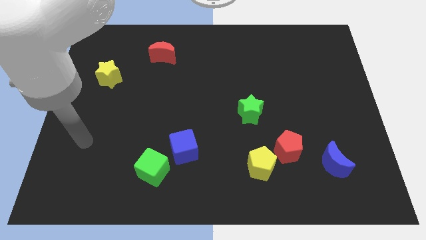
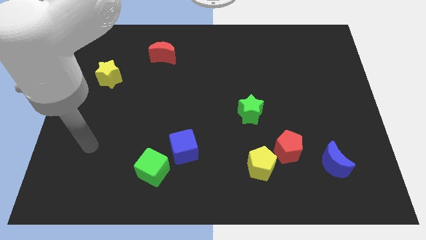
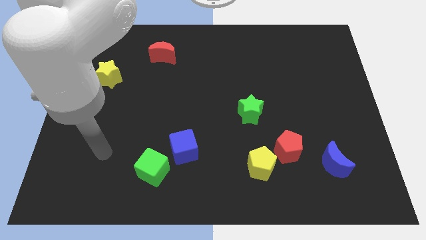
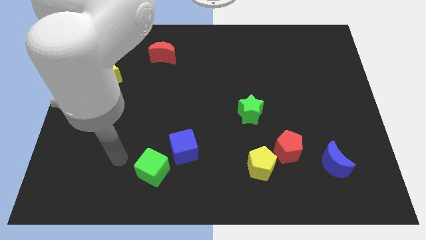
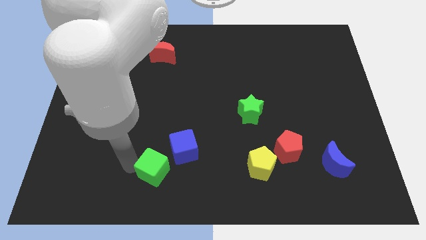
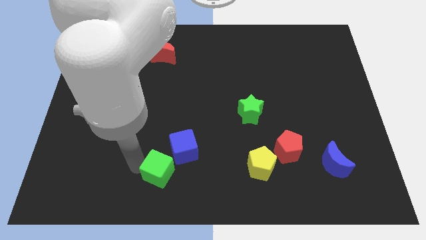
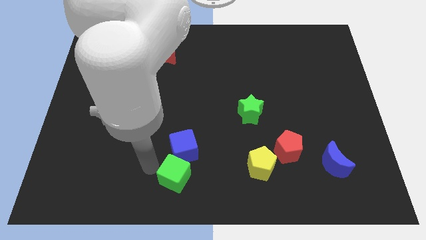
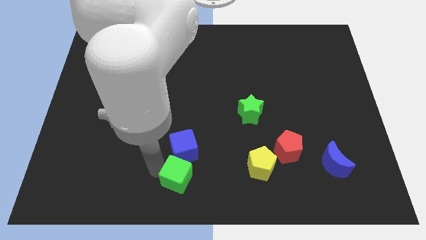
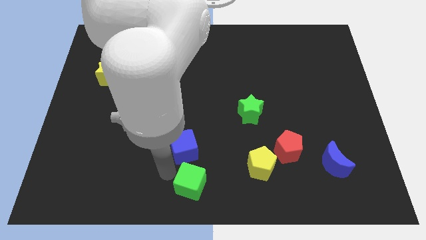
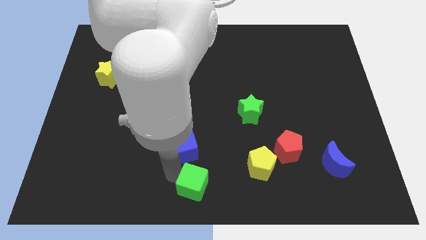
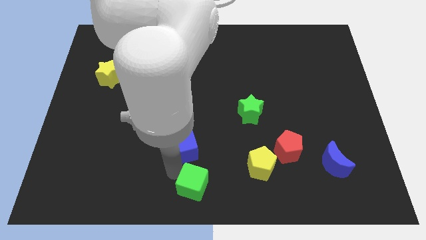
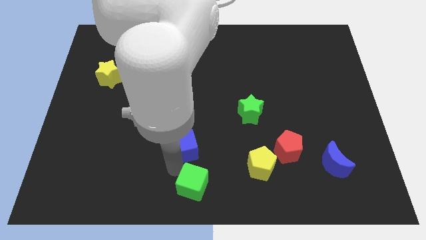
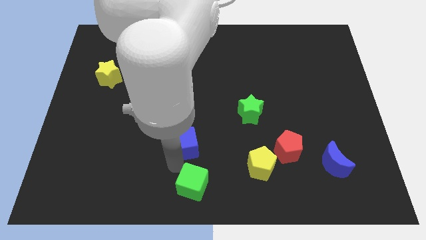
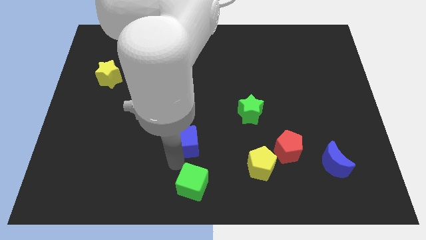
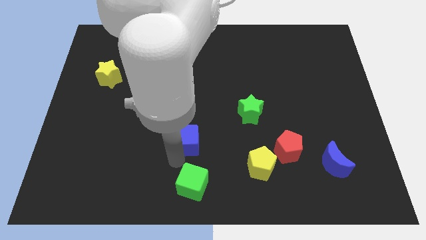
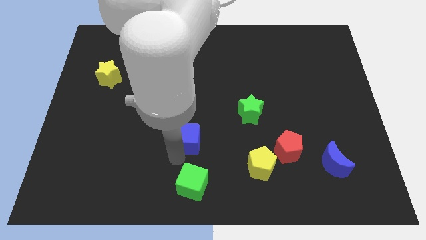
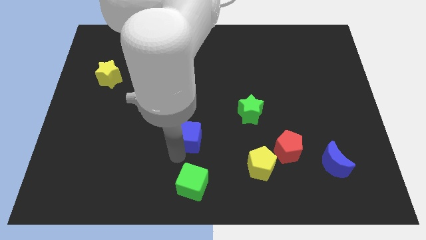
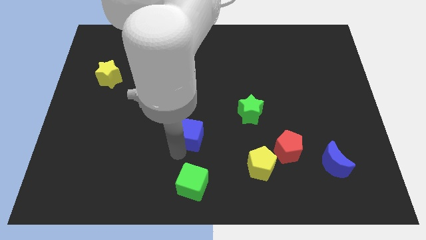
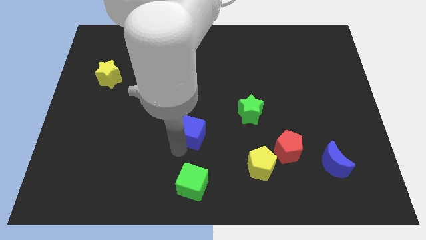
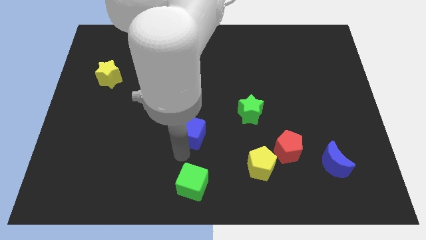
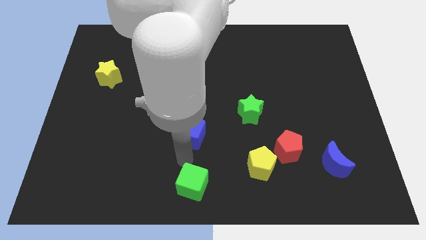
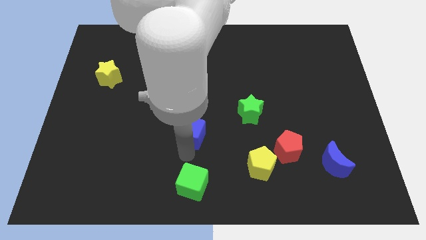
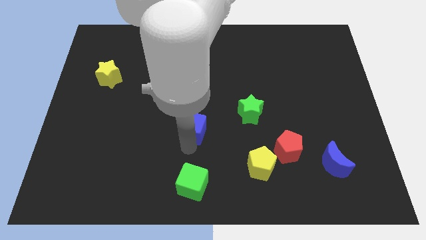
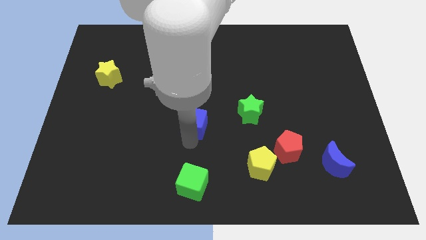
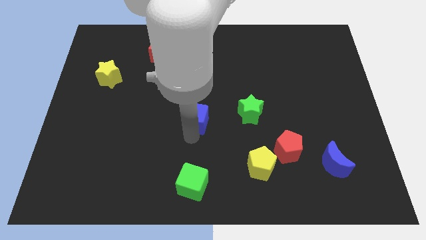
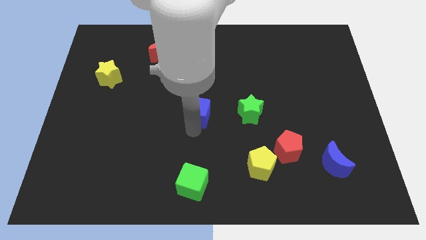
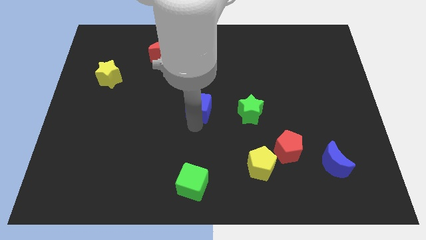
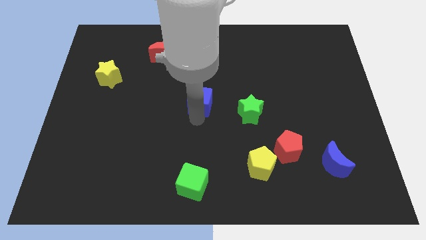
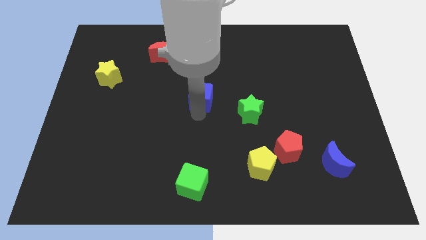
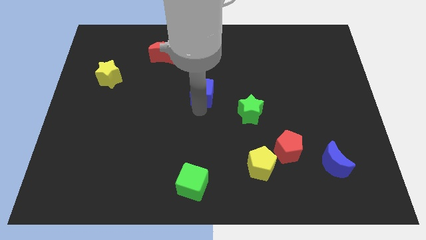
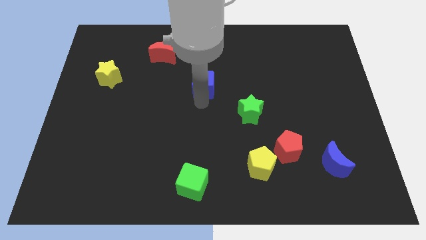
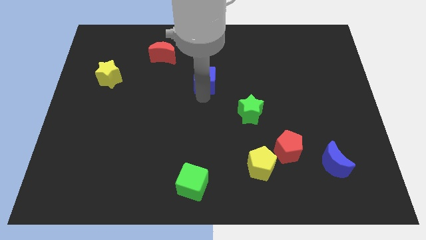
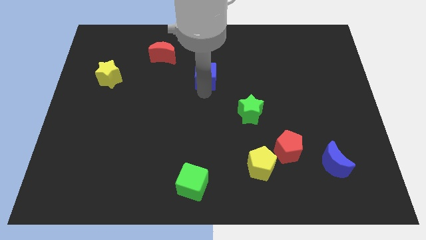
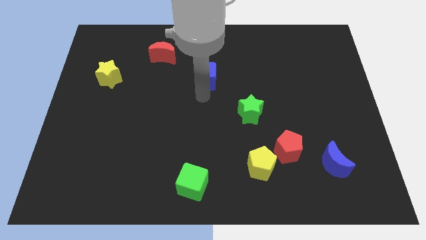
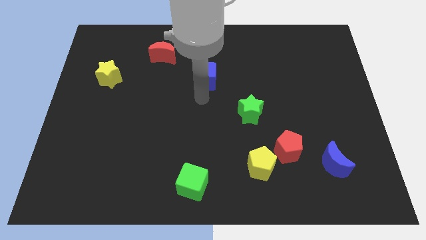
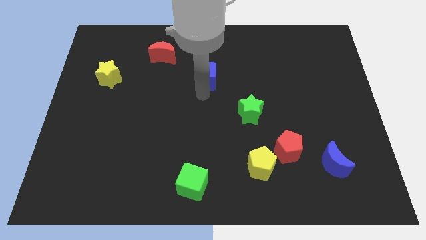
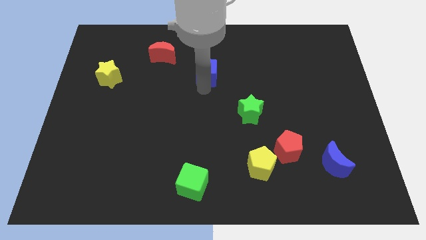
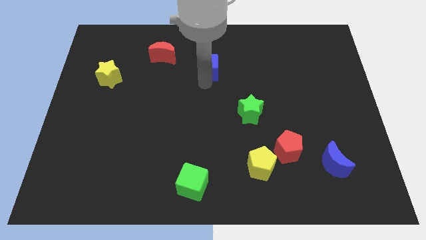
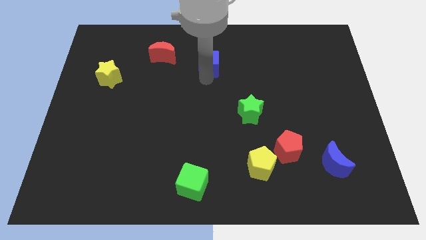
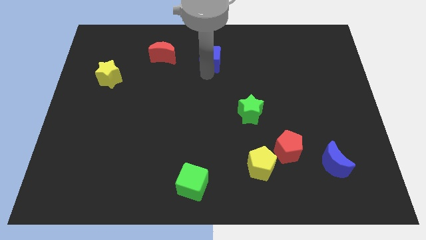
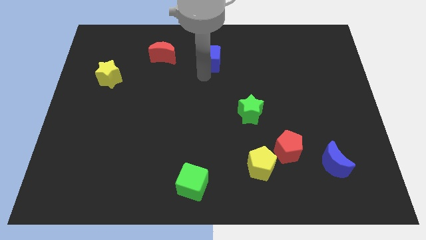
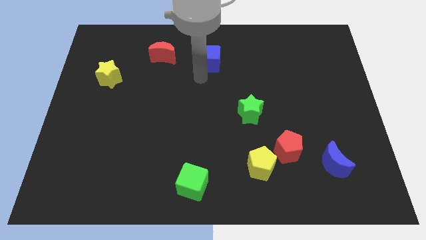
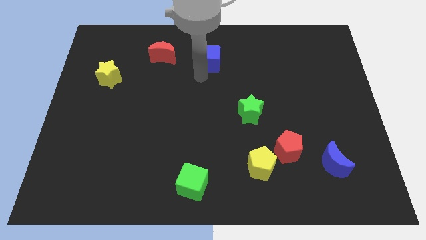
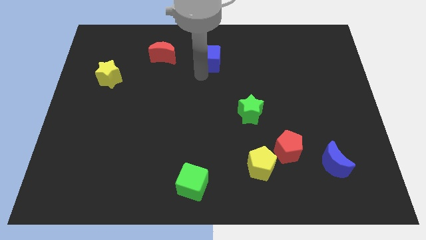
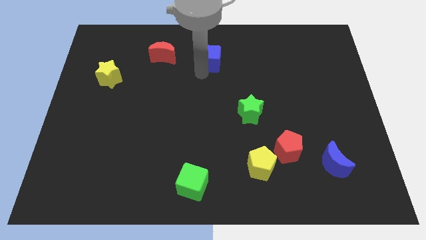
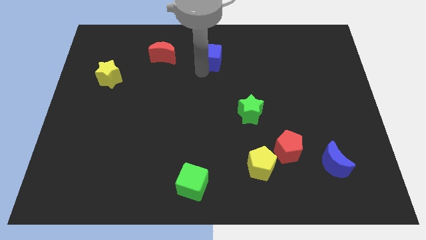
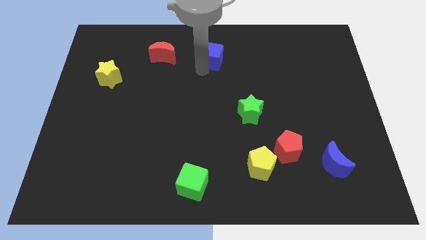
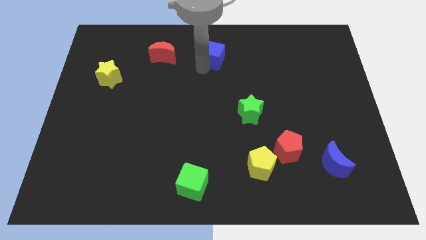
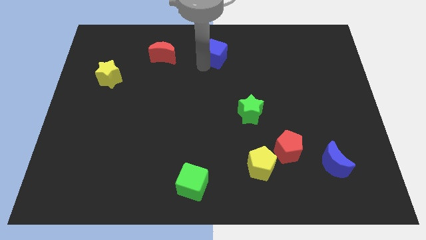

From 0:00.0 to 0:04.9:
slide the blue cube to the top

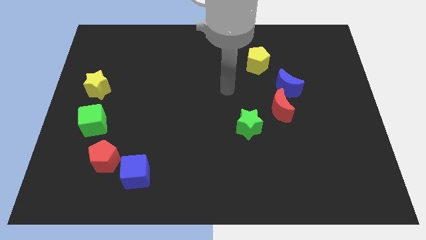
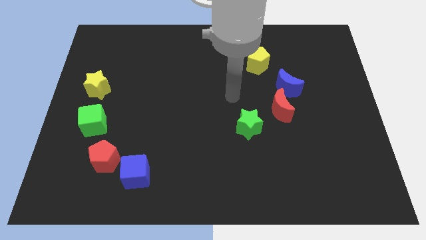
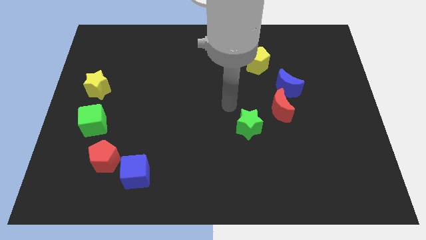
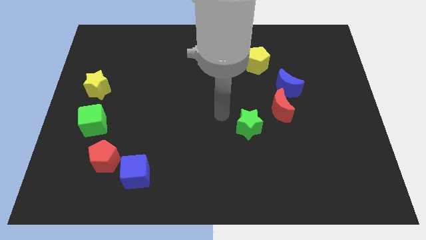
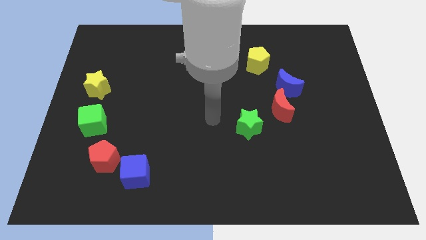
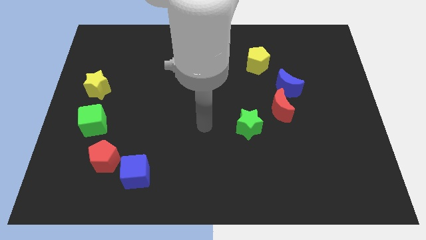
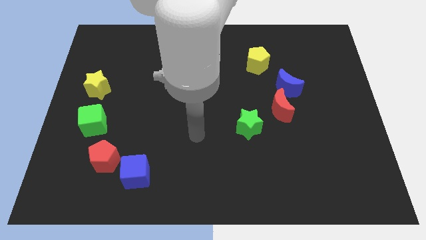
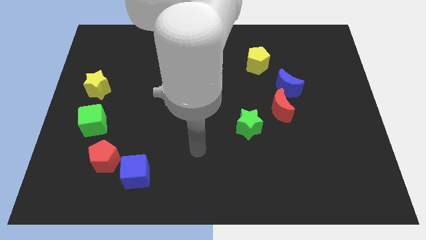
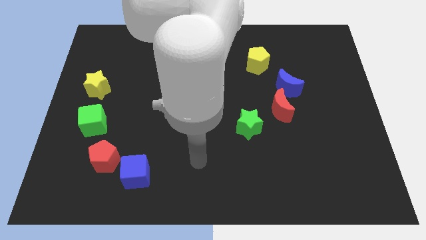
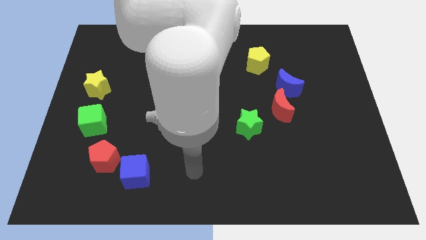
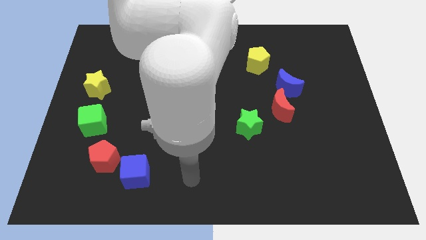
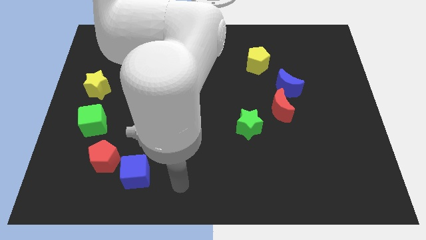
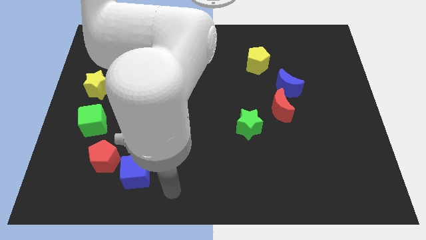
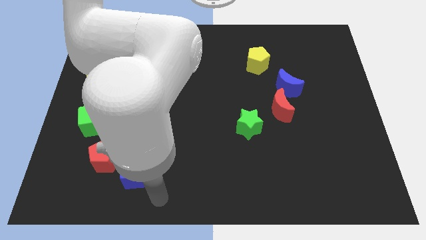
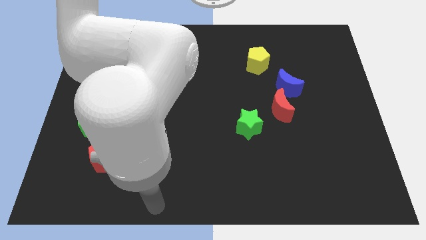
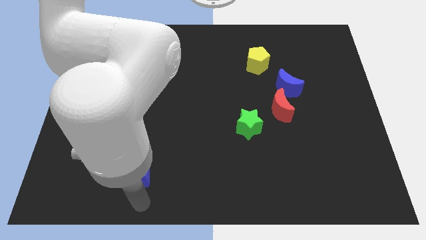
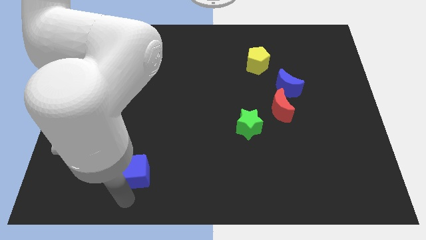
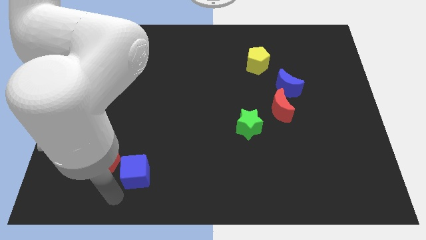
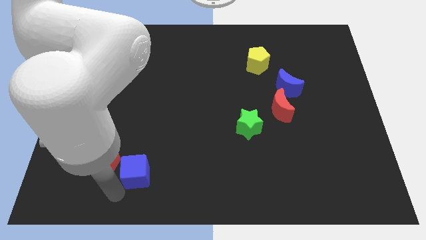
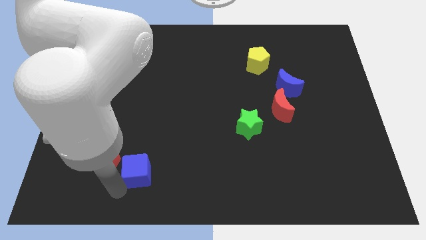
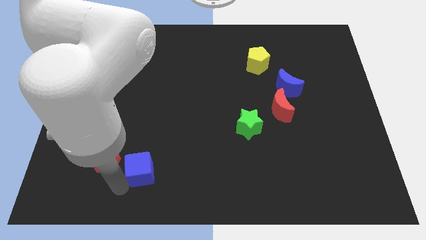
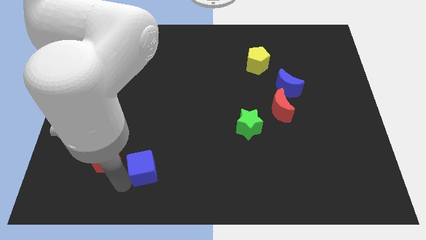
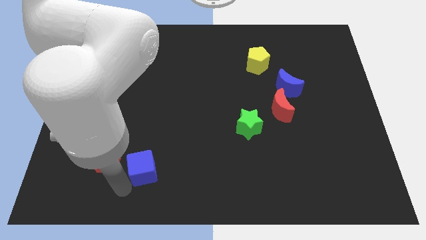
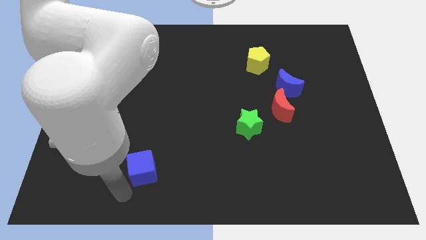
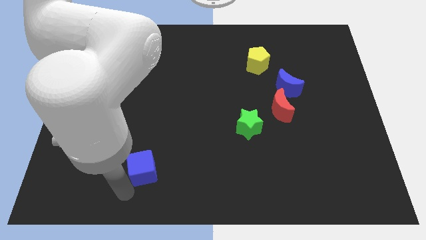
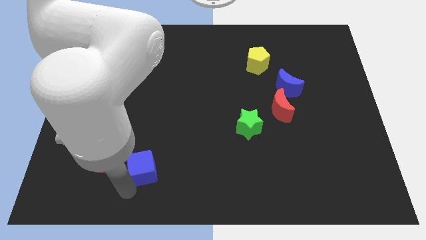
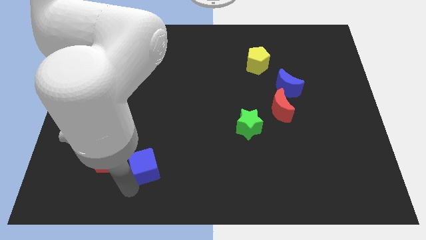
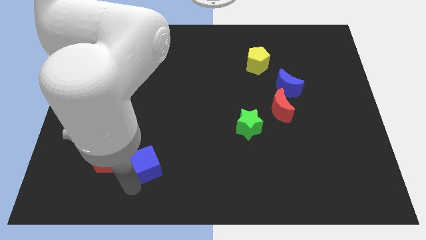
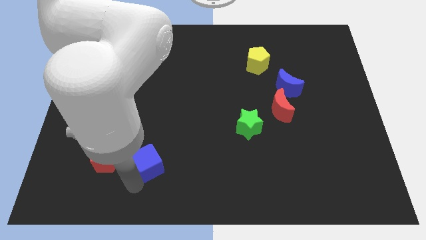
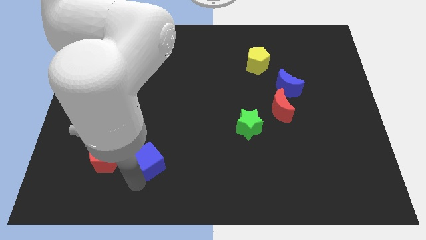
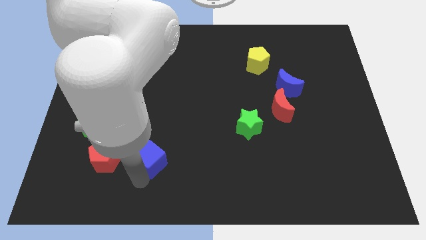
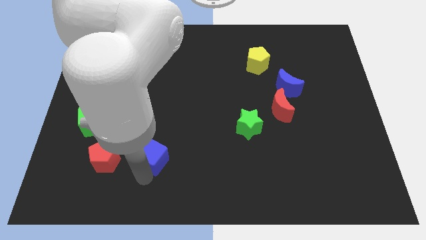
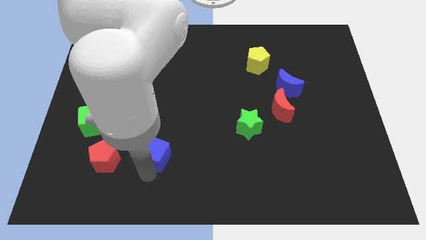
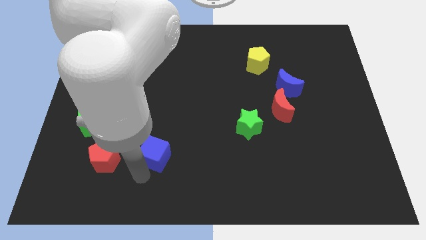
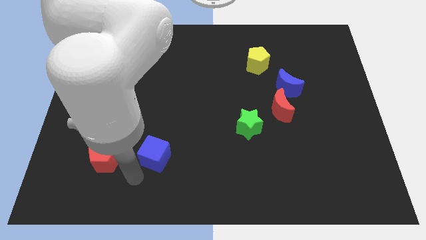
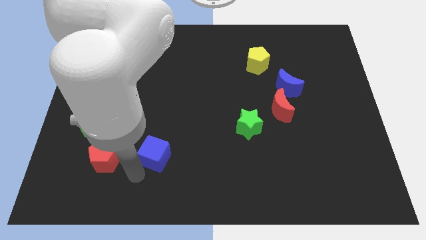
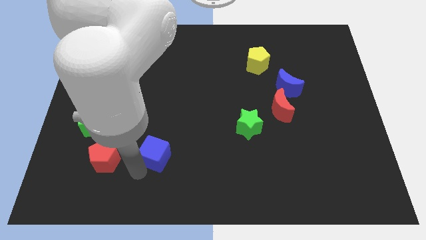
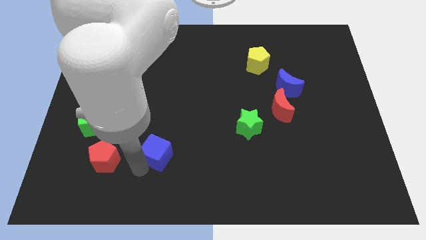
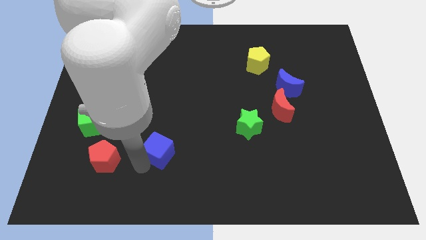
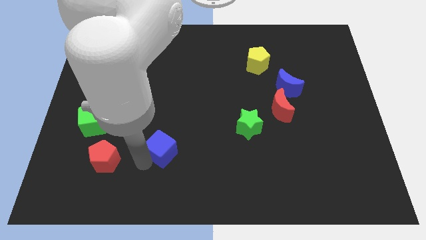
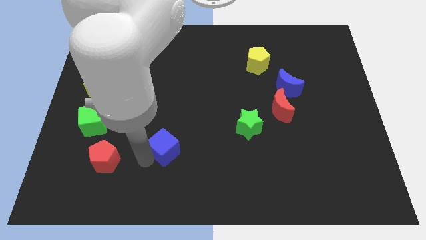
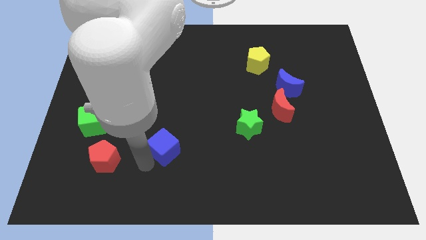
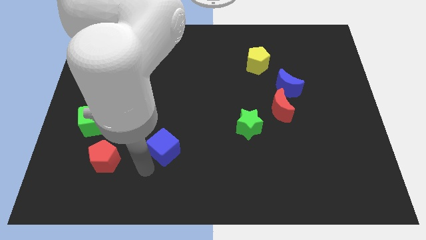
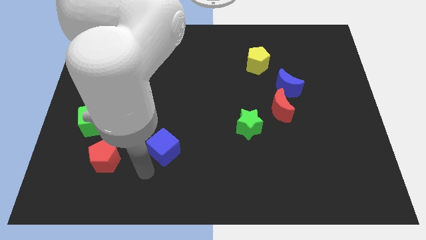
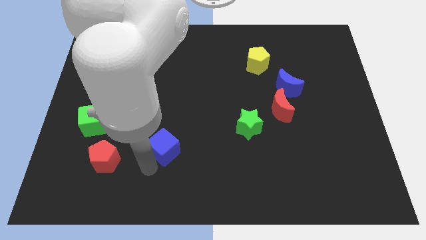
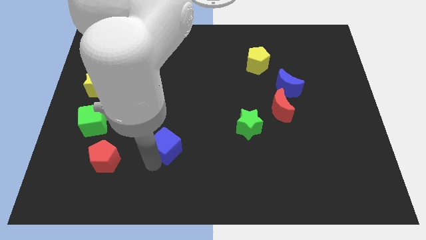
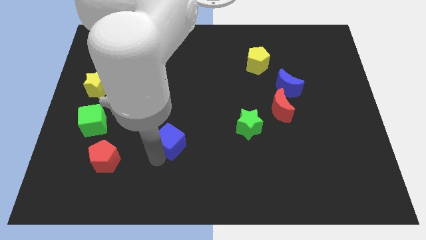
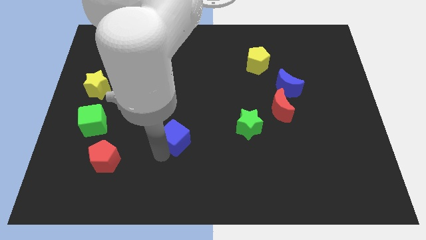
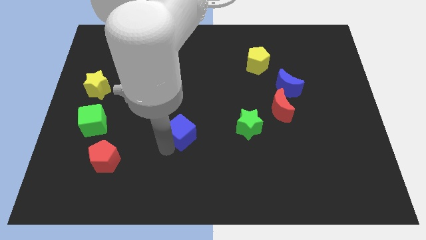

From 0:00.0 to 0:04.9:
push the blue cube to the middle
